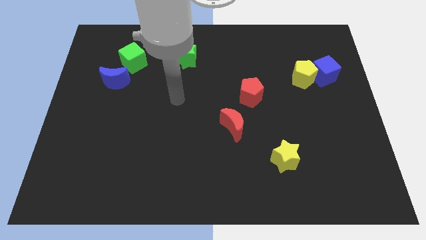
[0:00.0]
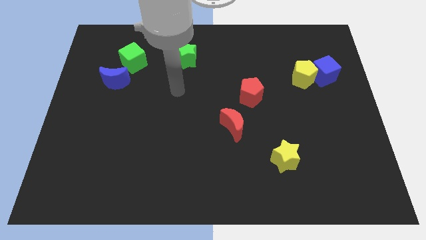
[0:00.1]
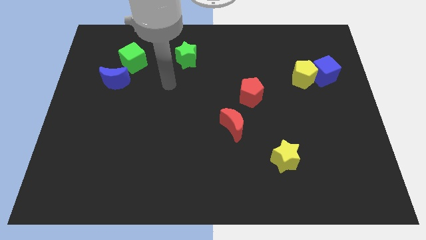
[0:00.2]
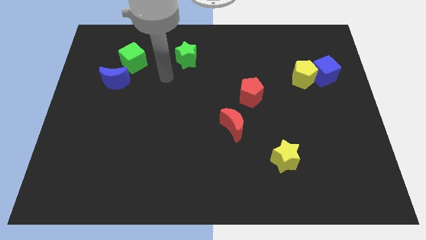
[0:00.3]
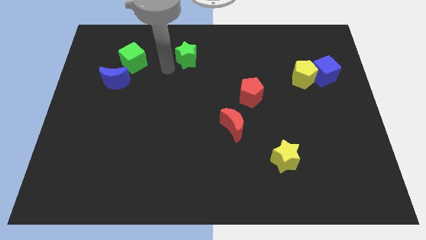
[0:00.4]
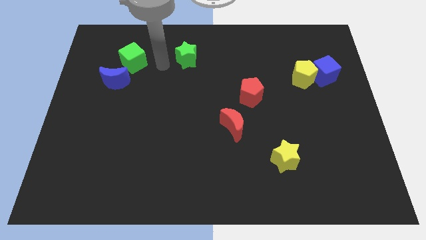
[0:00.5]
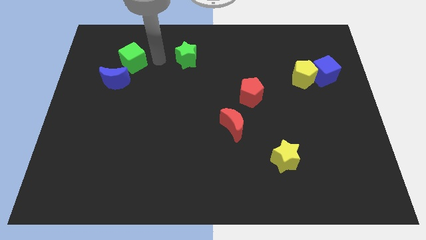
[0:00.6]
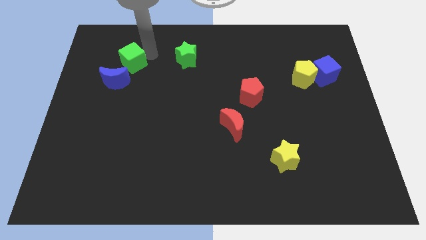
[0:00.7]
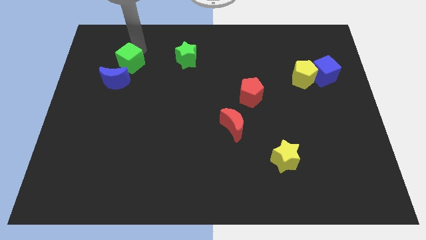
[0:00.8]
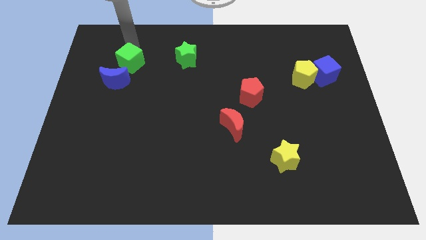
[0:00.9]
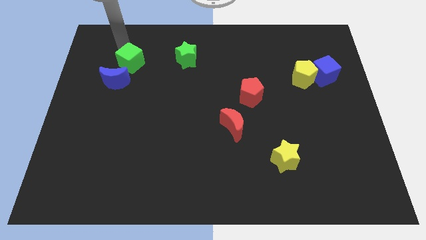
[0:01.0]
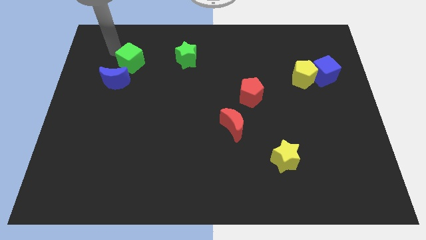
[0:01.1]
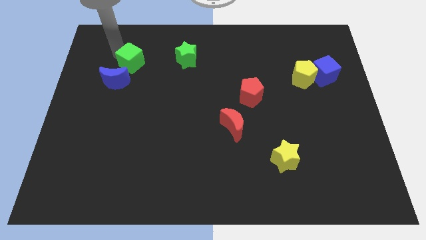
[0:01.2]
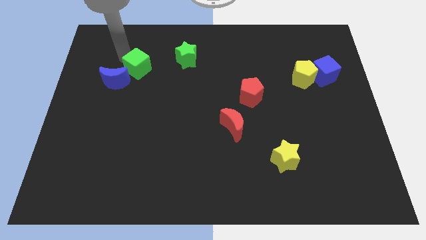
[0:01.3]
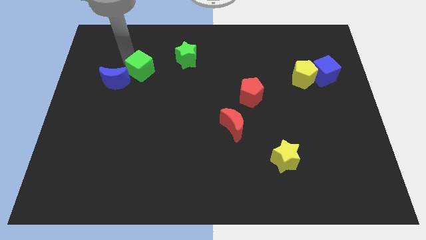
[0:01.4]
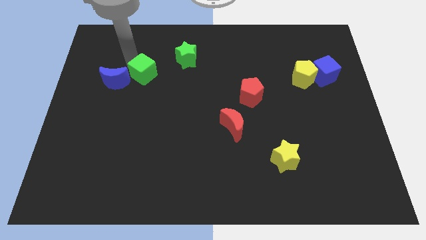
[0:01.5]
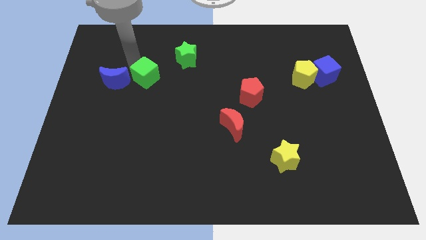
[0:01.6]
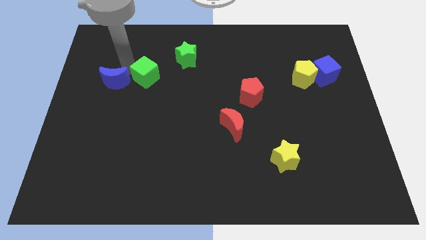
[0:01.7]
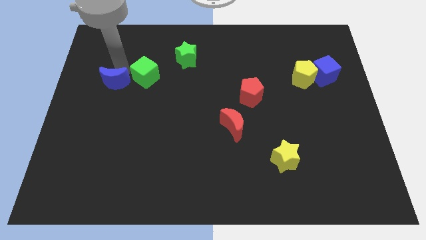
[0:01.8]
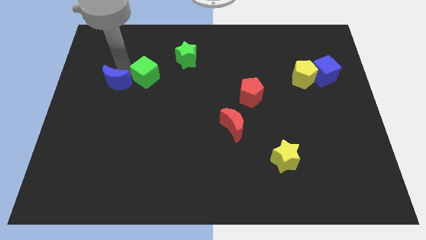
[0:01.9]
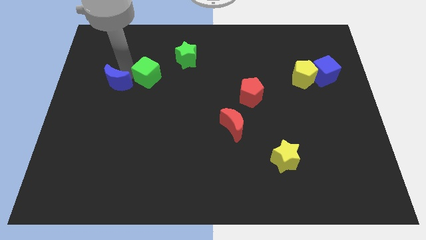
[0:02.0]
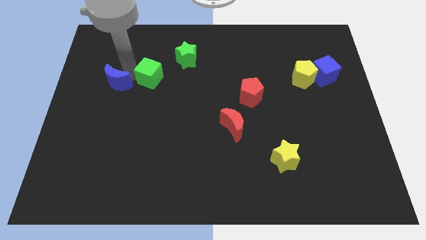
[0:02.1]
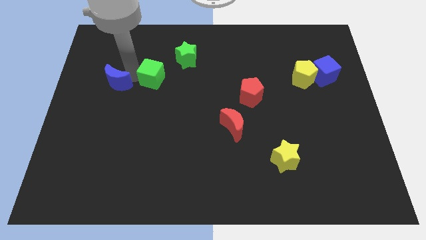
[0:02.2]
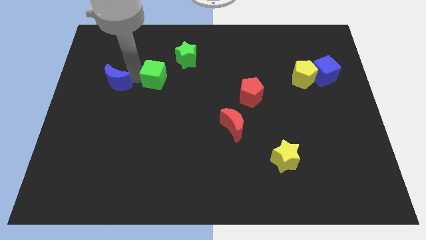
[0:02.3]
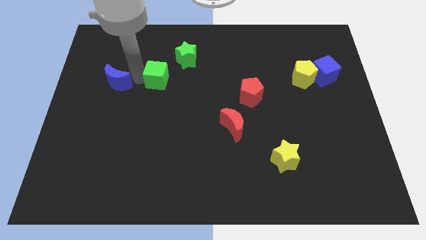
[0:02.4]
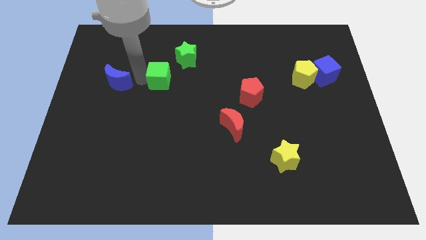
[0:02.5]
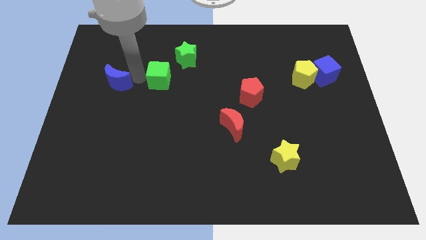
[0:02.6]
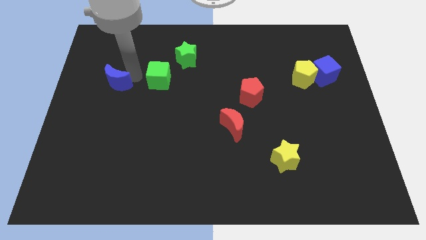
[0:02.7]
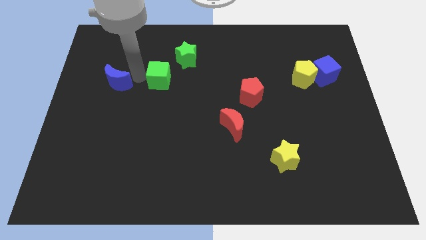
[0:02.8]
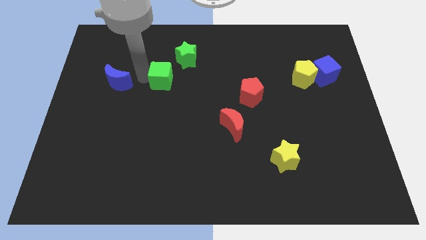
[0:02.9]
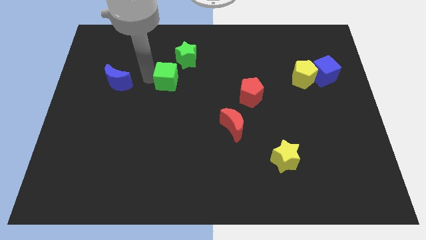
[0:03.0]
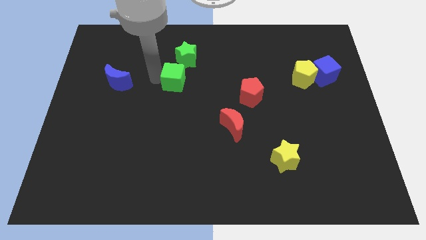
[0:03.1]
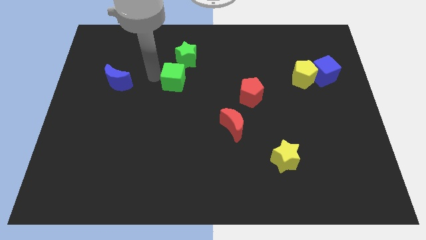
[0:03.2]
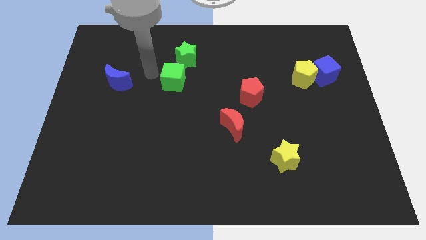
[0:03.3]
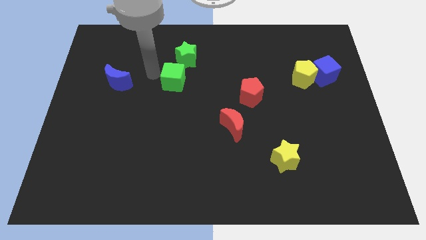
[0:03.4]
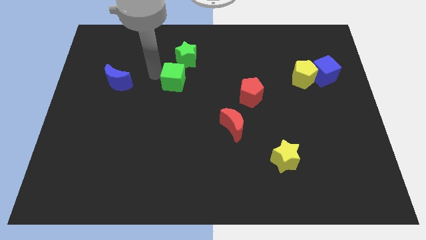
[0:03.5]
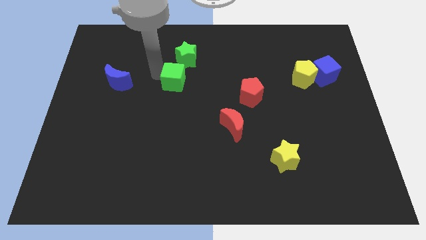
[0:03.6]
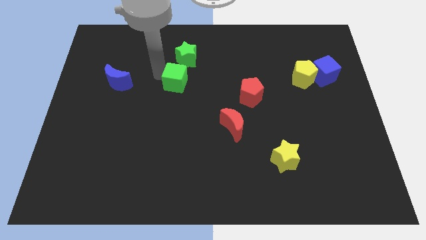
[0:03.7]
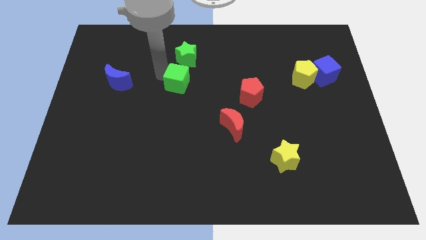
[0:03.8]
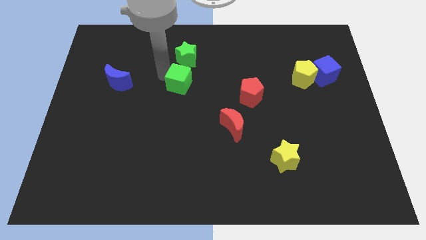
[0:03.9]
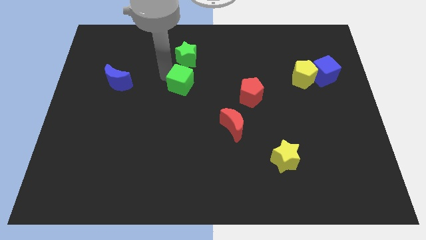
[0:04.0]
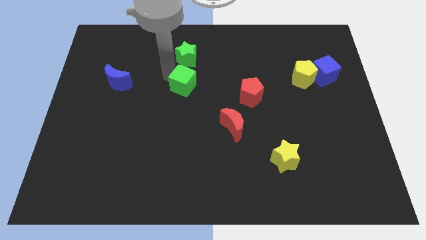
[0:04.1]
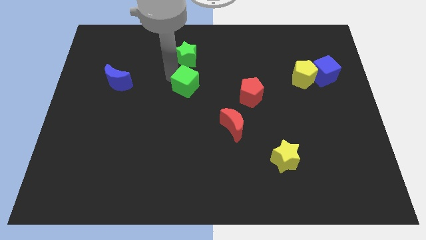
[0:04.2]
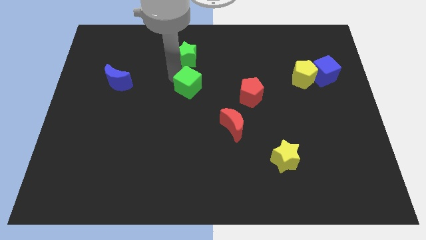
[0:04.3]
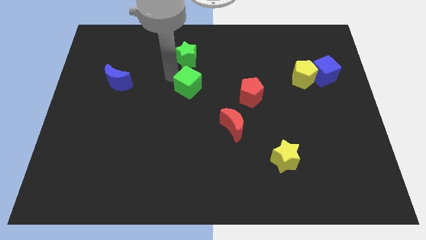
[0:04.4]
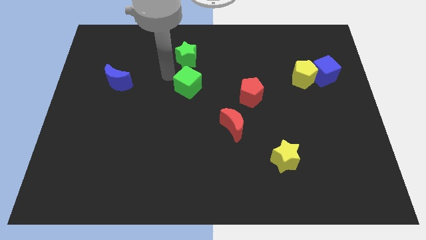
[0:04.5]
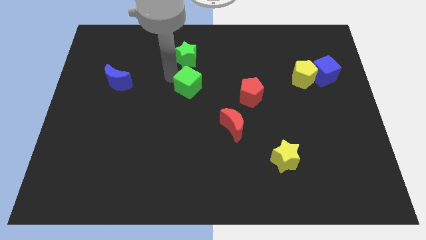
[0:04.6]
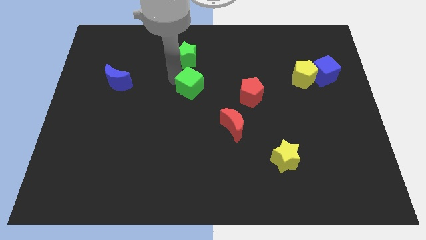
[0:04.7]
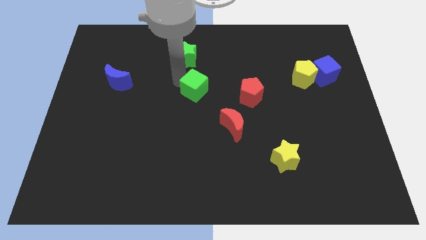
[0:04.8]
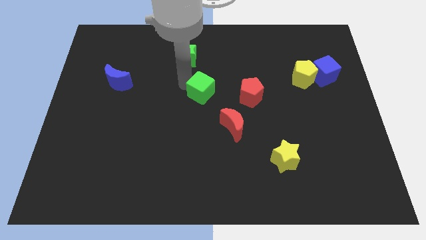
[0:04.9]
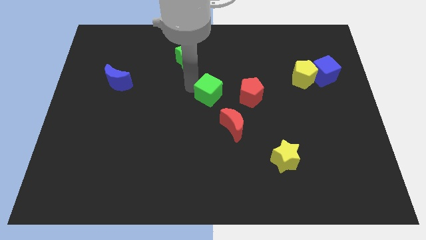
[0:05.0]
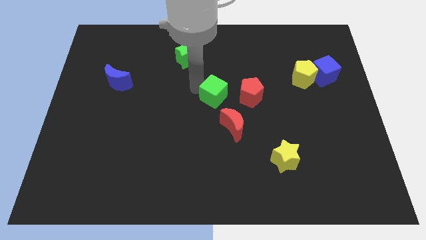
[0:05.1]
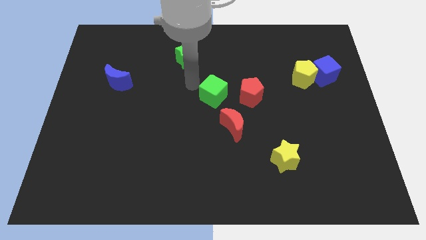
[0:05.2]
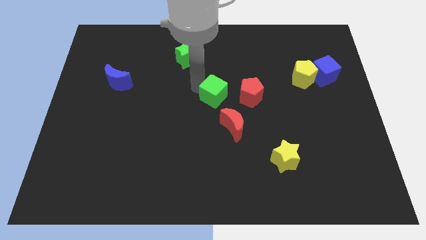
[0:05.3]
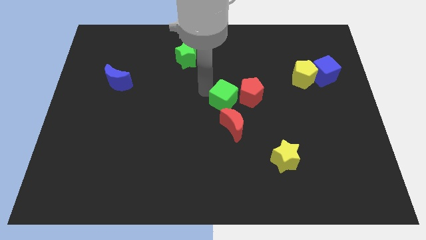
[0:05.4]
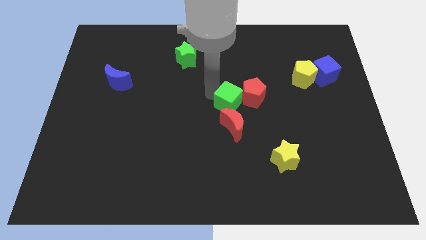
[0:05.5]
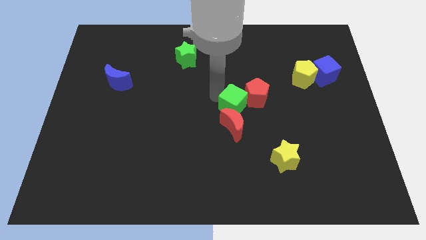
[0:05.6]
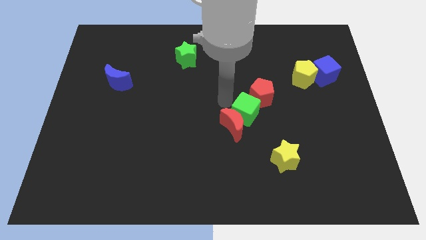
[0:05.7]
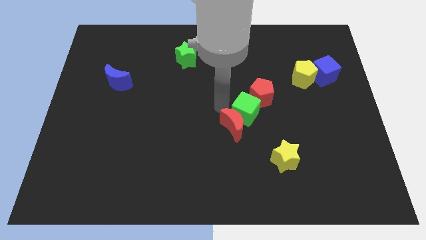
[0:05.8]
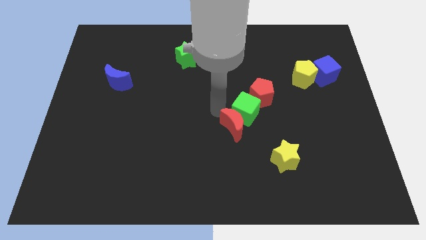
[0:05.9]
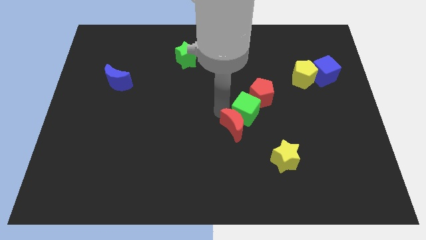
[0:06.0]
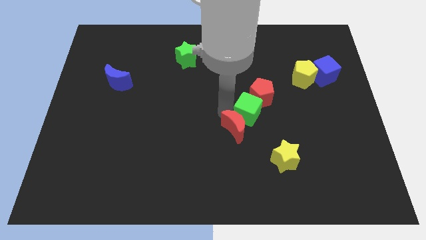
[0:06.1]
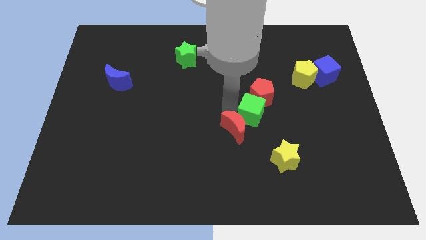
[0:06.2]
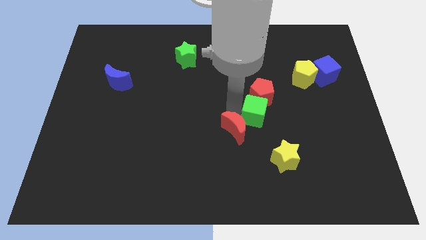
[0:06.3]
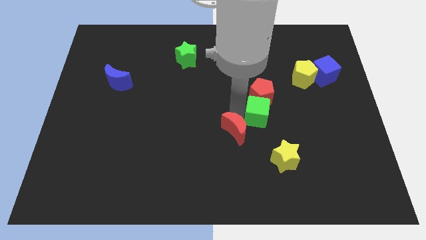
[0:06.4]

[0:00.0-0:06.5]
slide the green cube to the bottom right of the red pentagon

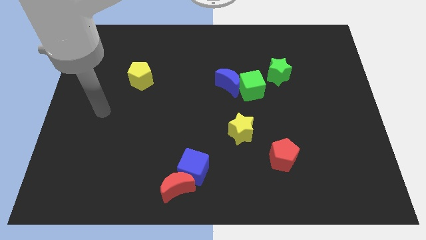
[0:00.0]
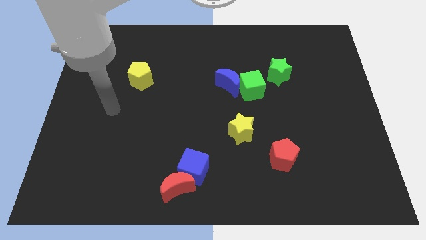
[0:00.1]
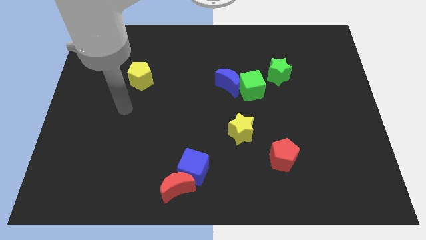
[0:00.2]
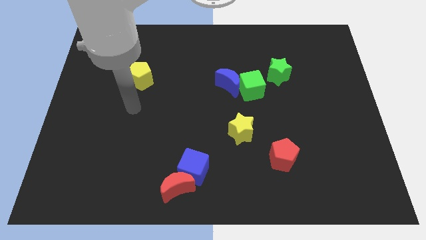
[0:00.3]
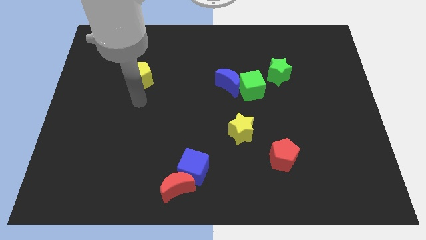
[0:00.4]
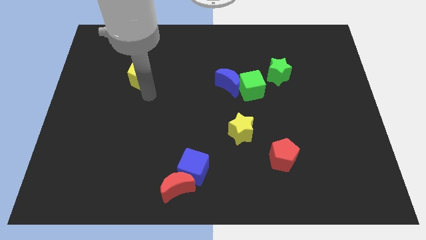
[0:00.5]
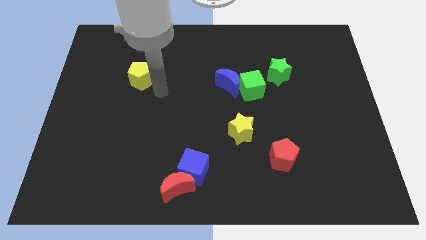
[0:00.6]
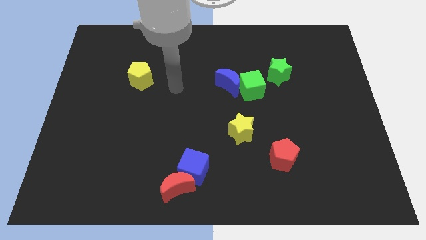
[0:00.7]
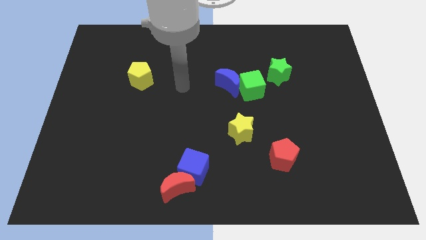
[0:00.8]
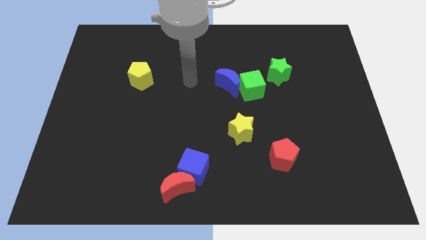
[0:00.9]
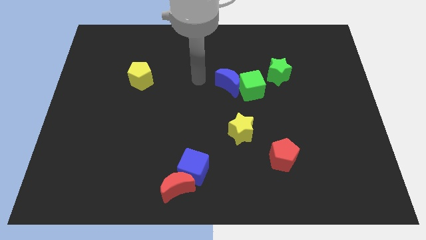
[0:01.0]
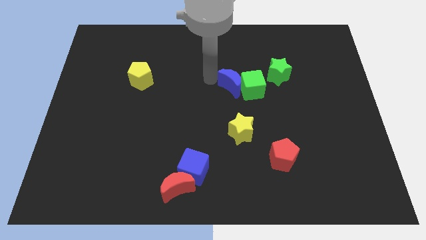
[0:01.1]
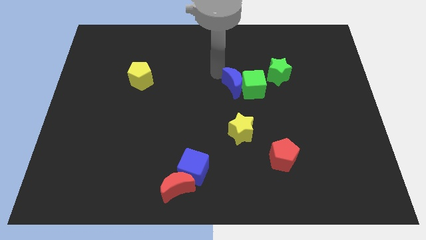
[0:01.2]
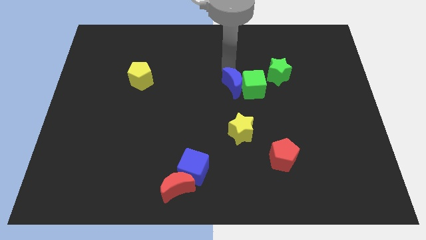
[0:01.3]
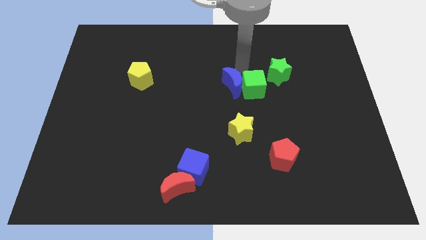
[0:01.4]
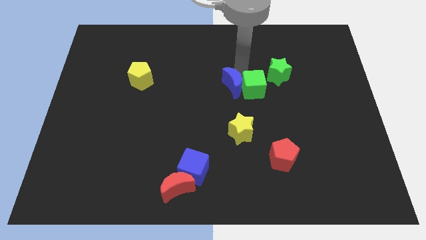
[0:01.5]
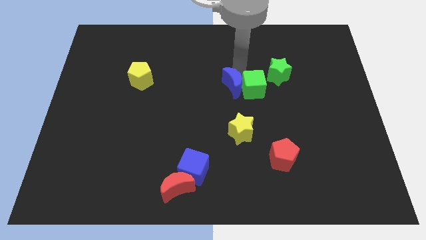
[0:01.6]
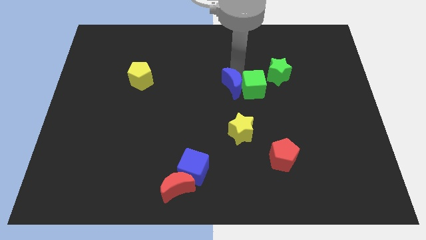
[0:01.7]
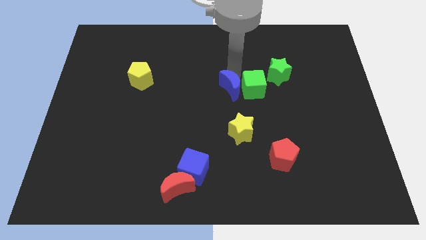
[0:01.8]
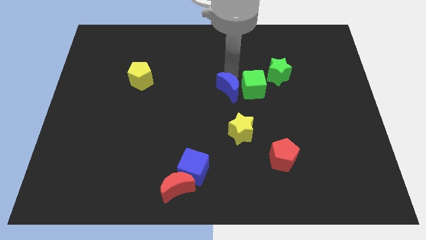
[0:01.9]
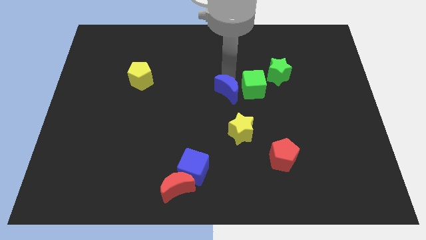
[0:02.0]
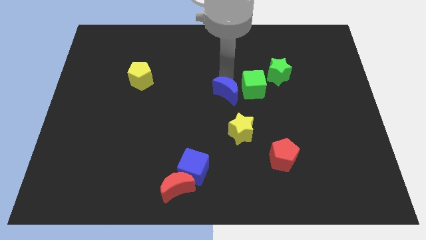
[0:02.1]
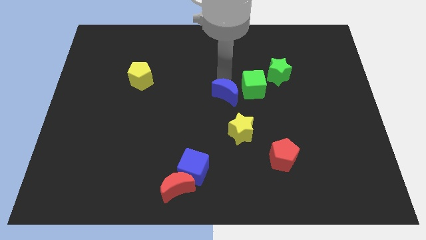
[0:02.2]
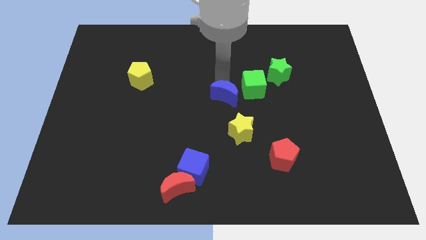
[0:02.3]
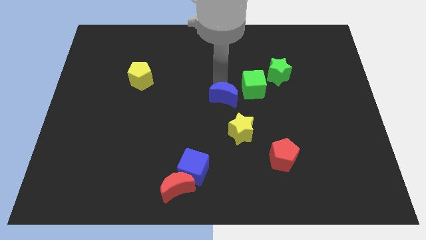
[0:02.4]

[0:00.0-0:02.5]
slide the blue moon to the top left side of the yellow star
